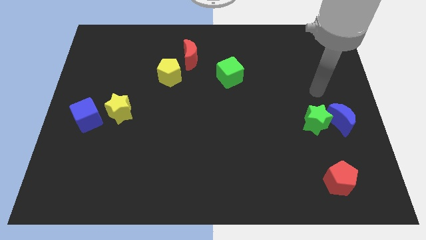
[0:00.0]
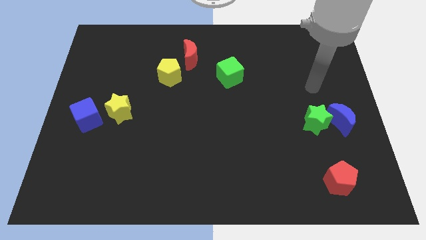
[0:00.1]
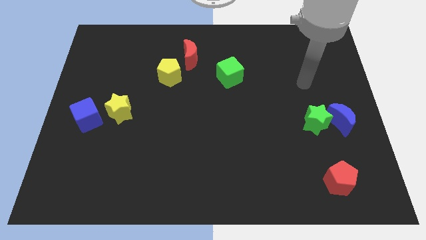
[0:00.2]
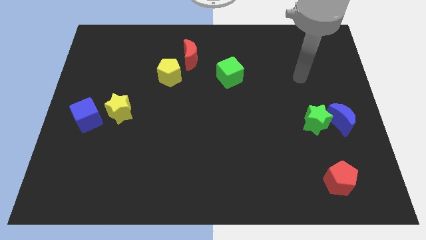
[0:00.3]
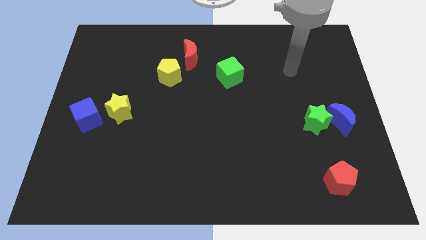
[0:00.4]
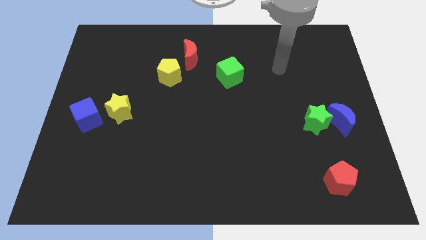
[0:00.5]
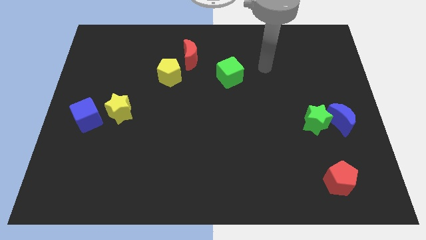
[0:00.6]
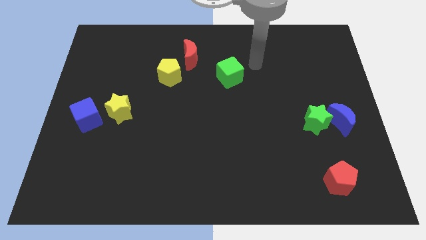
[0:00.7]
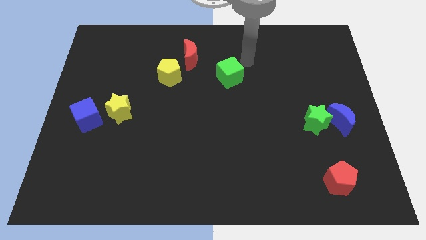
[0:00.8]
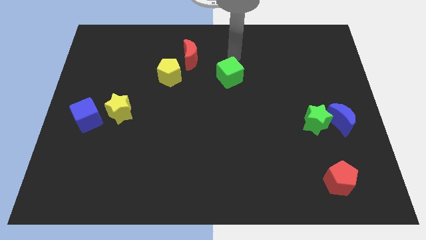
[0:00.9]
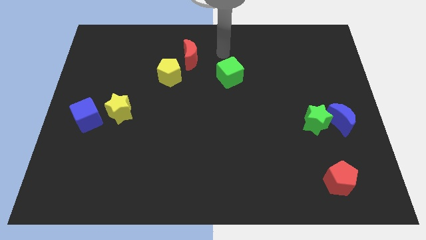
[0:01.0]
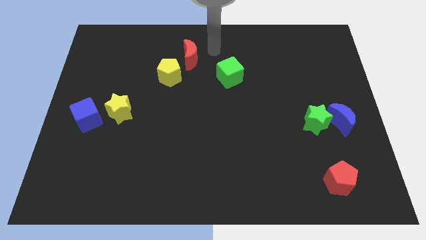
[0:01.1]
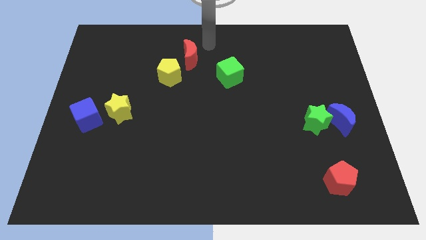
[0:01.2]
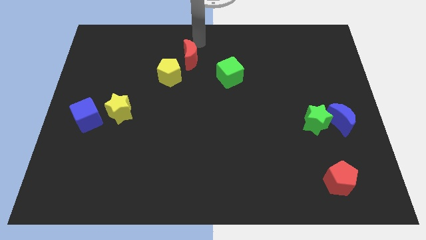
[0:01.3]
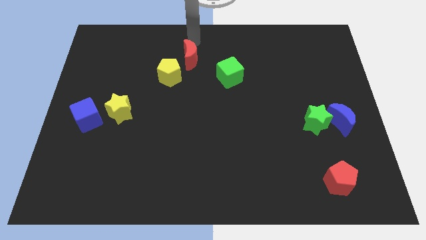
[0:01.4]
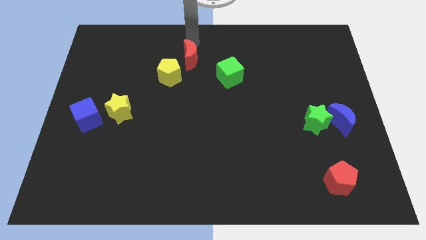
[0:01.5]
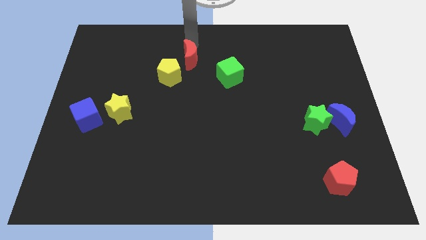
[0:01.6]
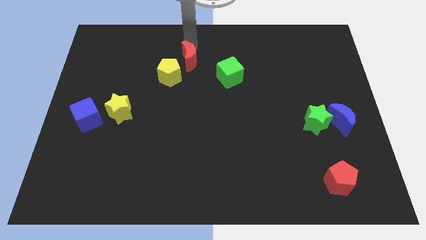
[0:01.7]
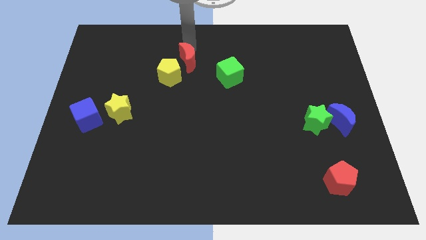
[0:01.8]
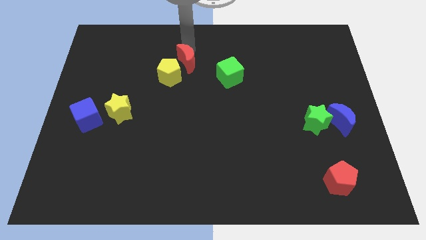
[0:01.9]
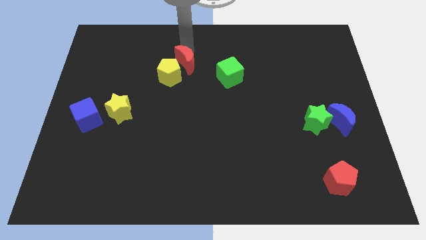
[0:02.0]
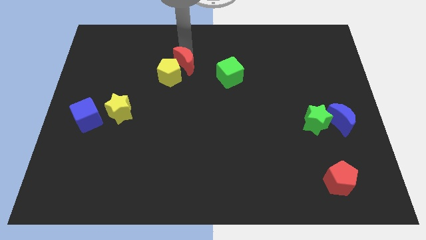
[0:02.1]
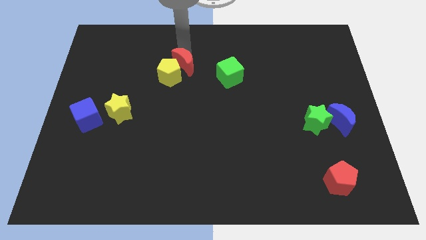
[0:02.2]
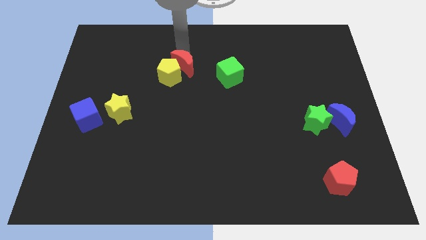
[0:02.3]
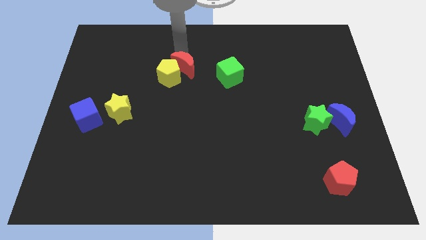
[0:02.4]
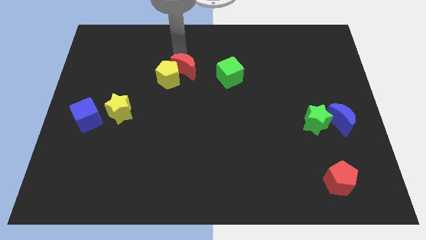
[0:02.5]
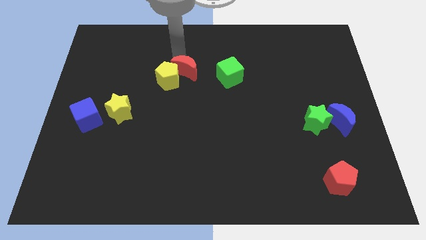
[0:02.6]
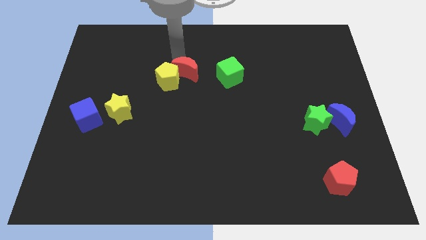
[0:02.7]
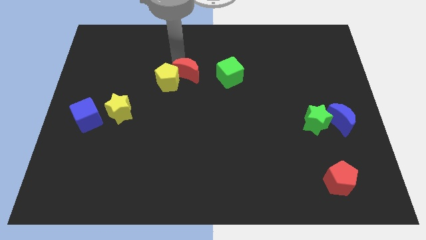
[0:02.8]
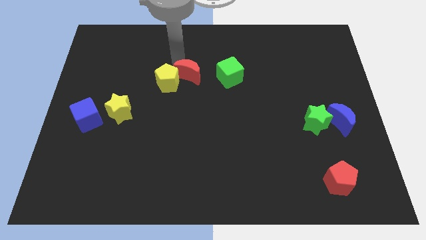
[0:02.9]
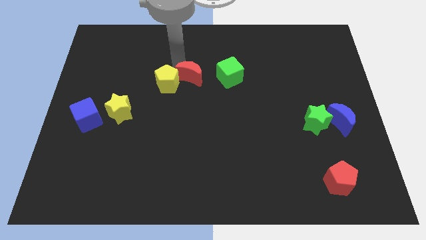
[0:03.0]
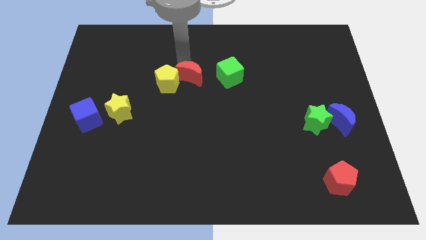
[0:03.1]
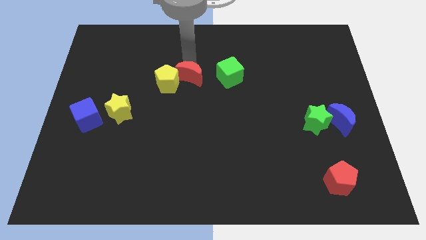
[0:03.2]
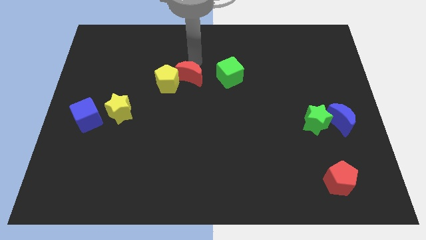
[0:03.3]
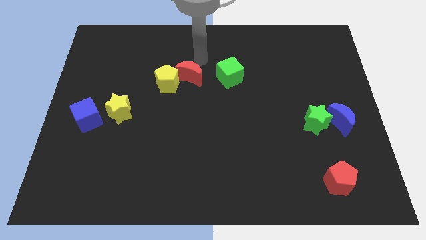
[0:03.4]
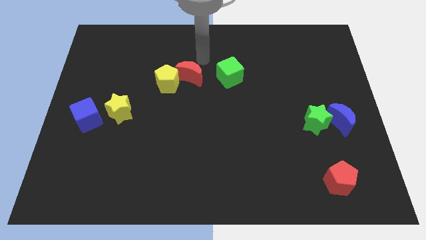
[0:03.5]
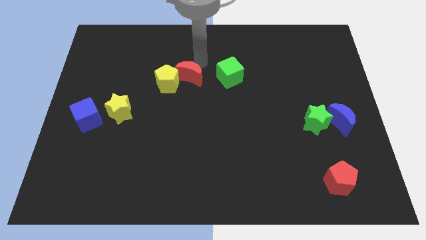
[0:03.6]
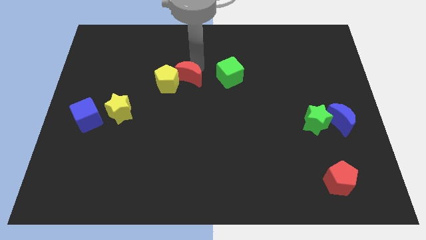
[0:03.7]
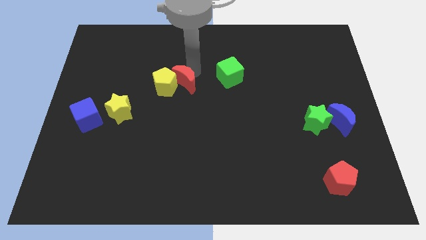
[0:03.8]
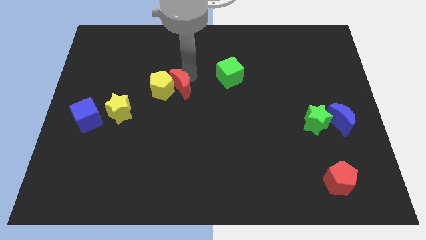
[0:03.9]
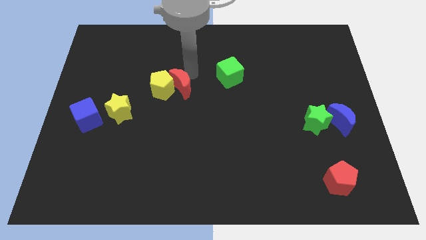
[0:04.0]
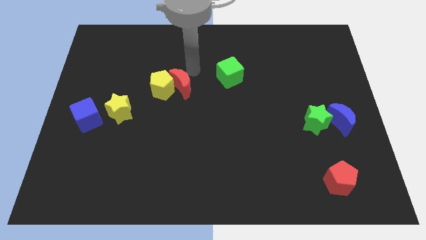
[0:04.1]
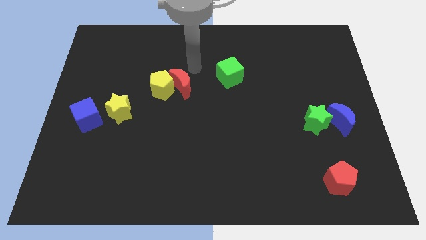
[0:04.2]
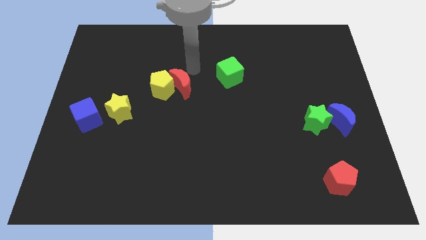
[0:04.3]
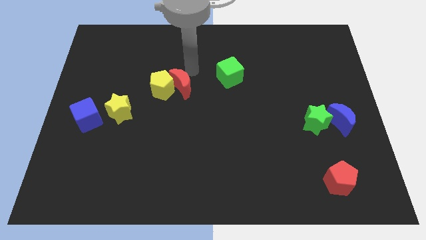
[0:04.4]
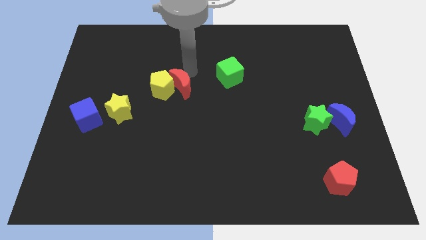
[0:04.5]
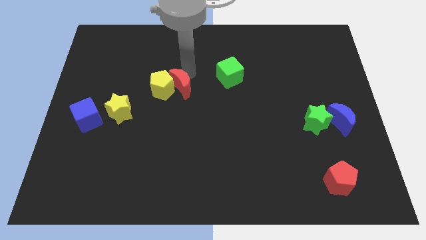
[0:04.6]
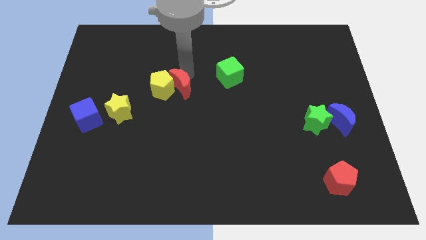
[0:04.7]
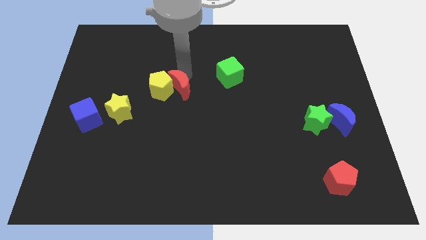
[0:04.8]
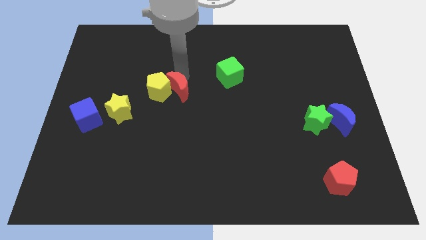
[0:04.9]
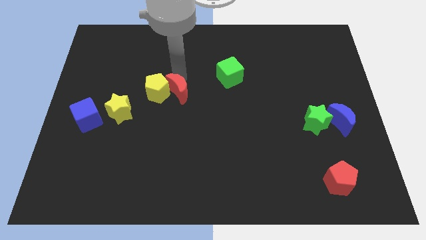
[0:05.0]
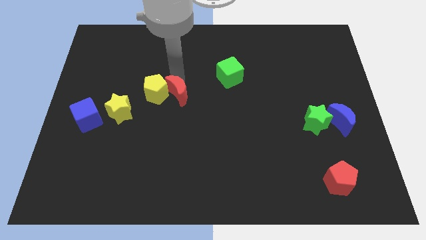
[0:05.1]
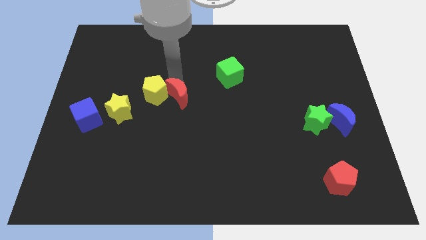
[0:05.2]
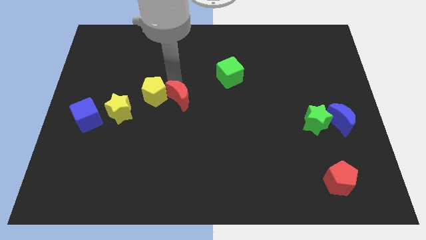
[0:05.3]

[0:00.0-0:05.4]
put the red moon to the right side of the yellow star

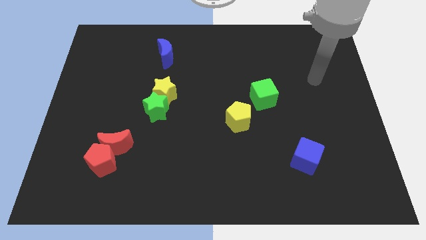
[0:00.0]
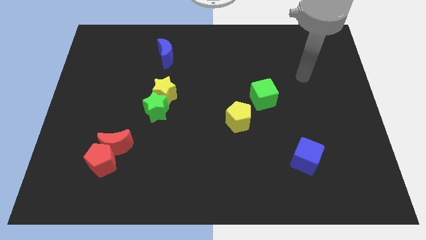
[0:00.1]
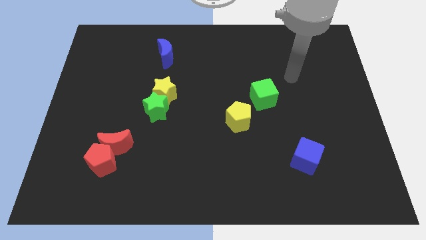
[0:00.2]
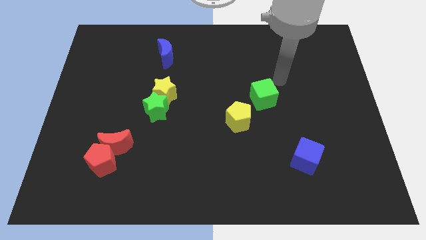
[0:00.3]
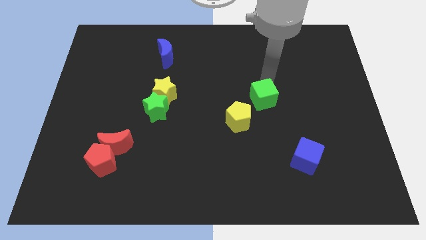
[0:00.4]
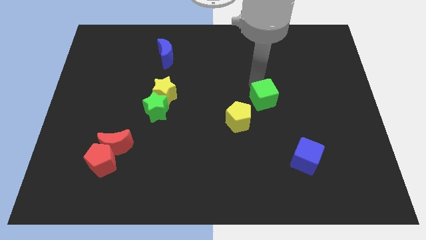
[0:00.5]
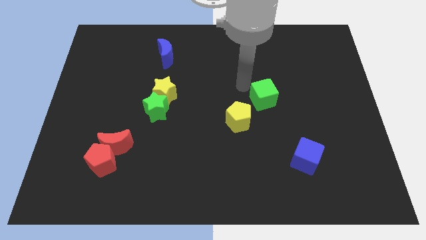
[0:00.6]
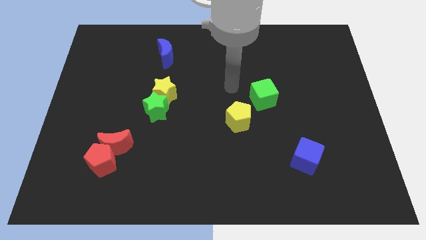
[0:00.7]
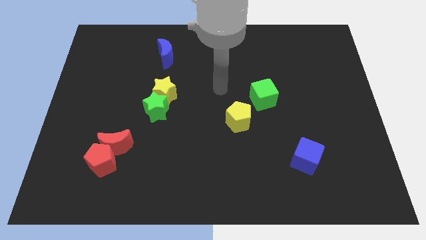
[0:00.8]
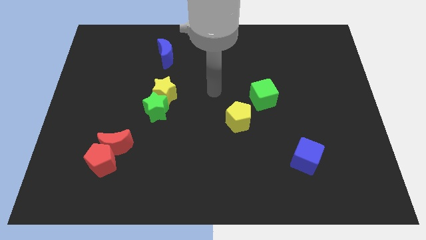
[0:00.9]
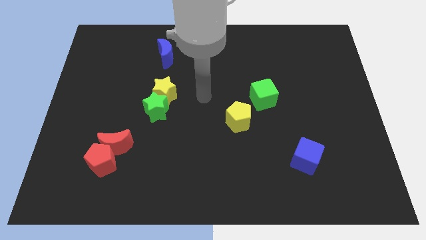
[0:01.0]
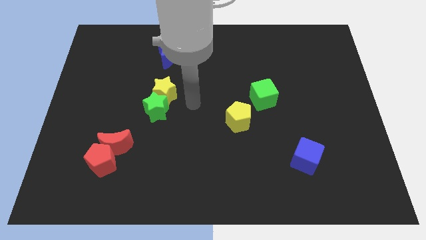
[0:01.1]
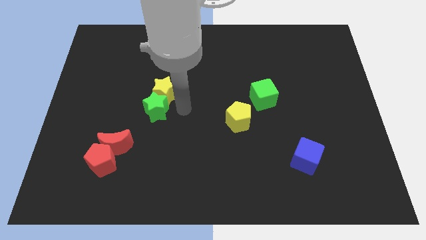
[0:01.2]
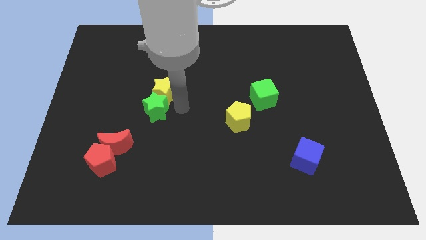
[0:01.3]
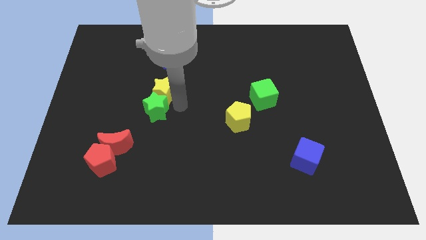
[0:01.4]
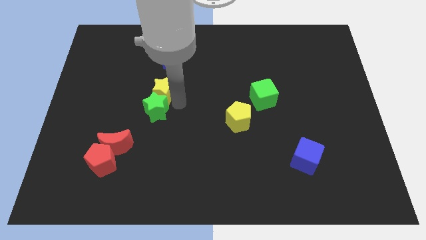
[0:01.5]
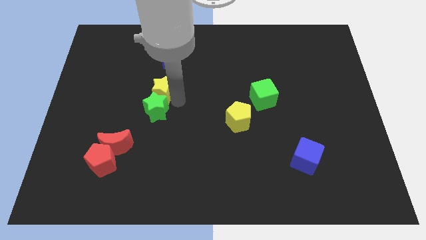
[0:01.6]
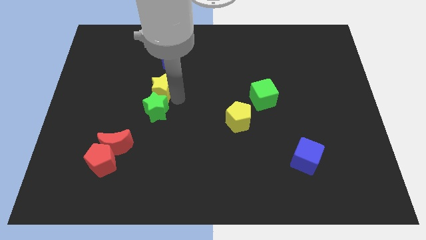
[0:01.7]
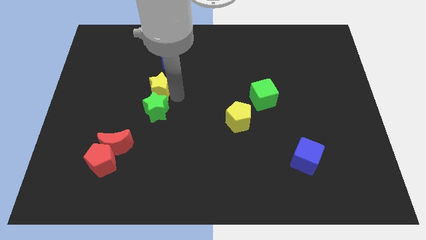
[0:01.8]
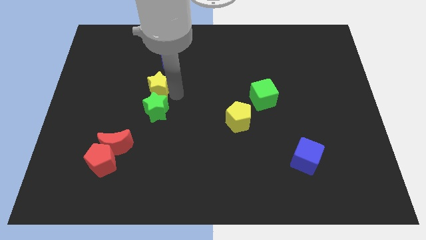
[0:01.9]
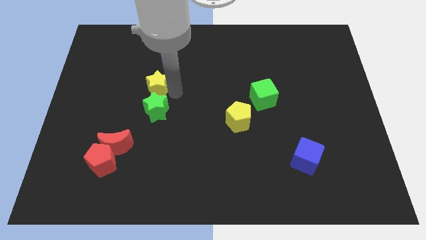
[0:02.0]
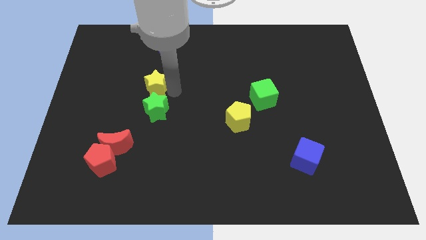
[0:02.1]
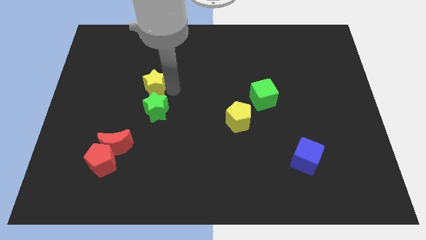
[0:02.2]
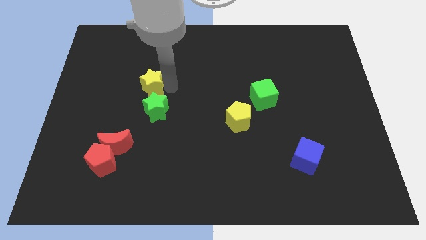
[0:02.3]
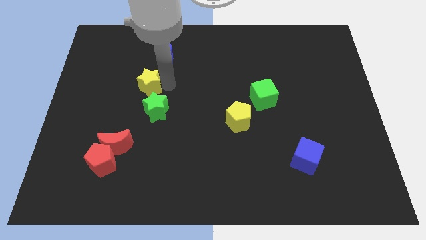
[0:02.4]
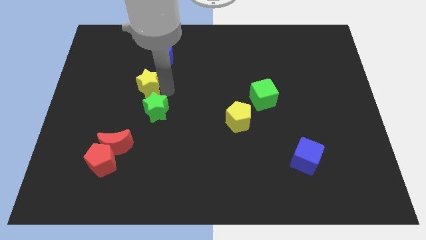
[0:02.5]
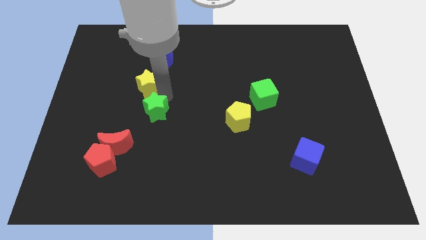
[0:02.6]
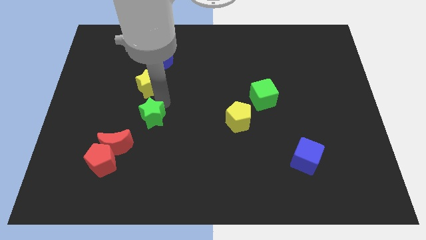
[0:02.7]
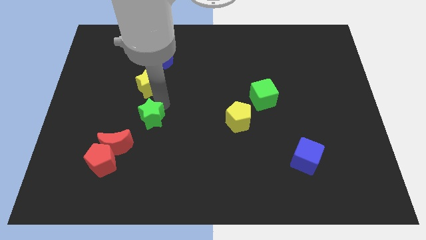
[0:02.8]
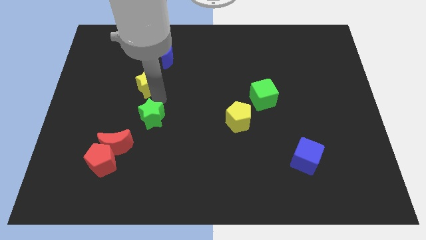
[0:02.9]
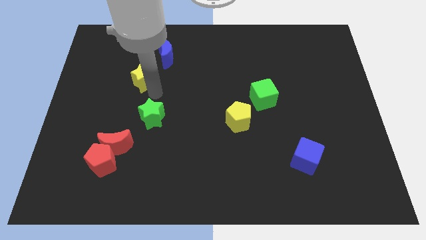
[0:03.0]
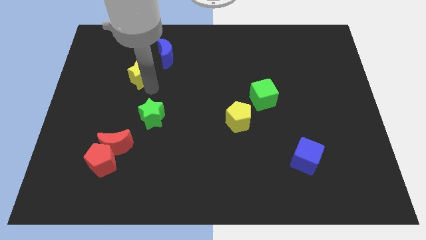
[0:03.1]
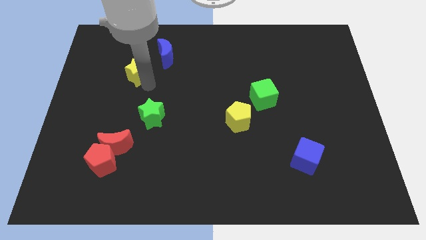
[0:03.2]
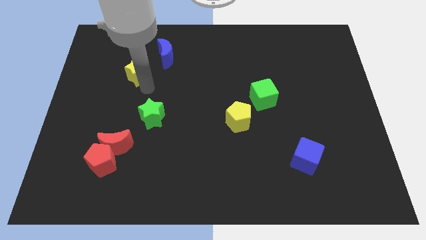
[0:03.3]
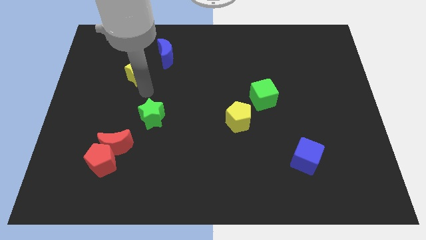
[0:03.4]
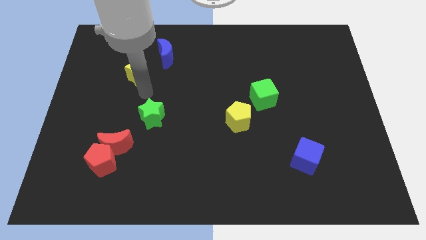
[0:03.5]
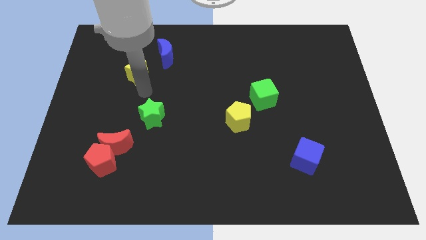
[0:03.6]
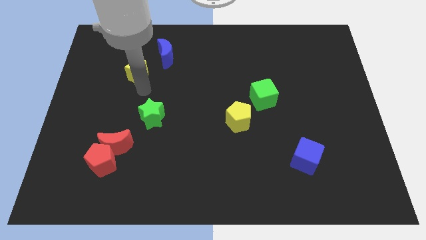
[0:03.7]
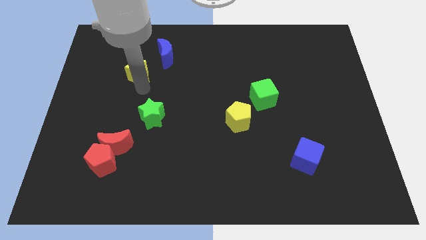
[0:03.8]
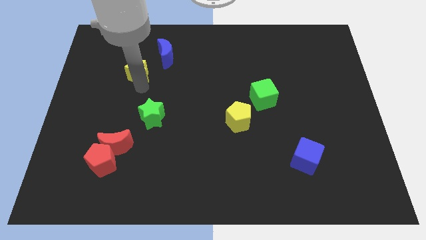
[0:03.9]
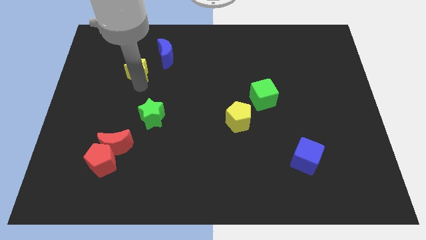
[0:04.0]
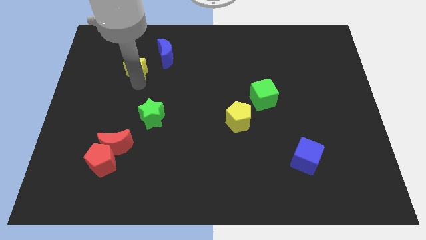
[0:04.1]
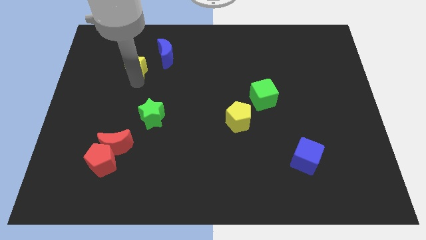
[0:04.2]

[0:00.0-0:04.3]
put the yellow star just left of the blue moon
